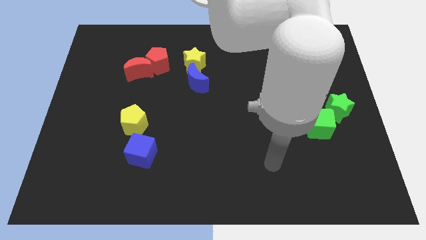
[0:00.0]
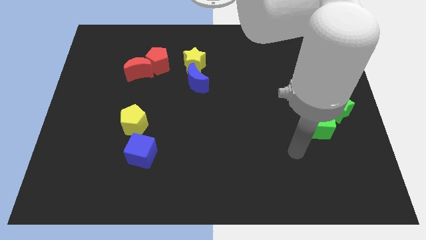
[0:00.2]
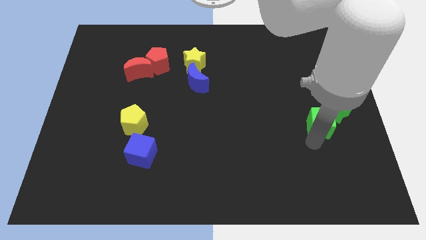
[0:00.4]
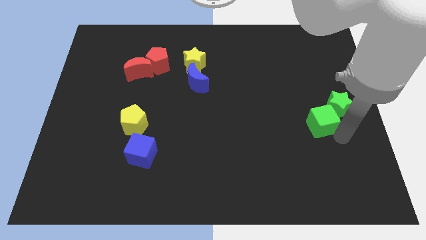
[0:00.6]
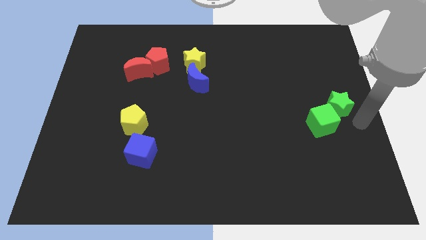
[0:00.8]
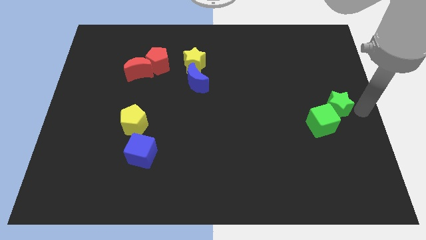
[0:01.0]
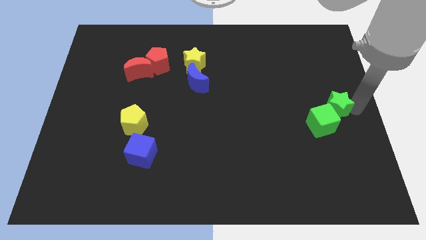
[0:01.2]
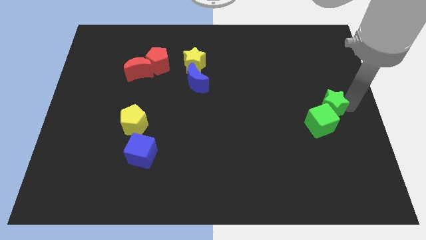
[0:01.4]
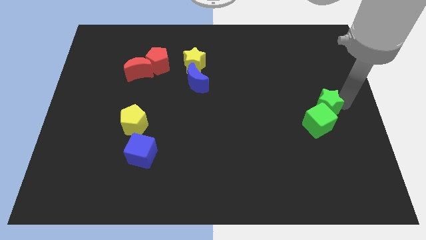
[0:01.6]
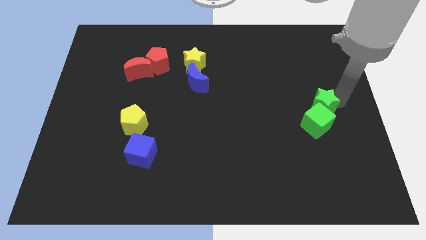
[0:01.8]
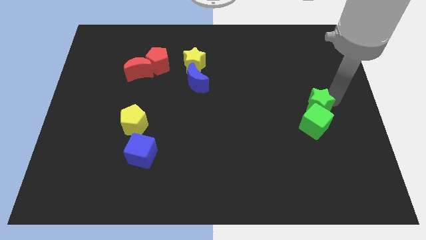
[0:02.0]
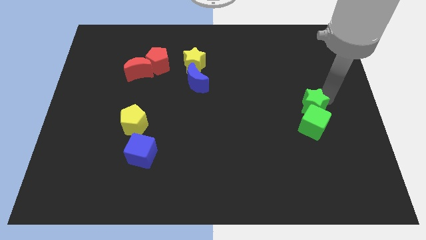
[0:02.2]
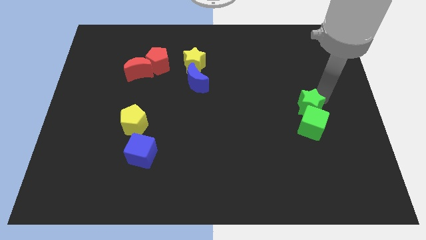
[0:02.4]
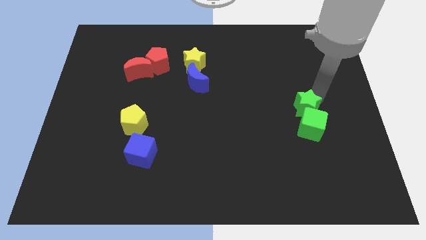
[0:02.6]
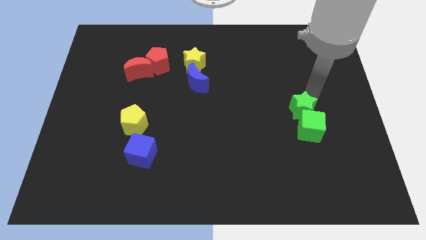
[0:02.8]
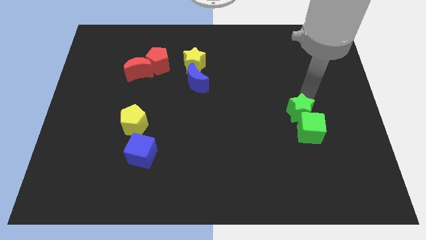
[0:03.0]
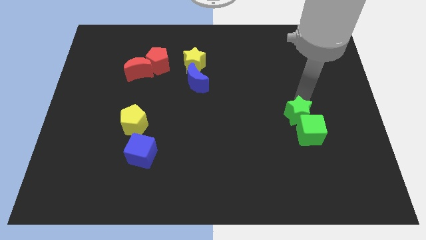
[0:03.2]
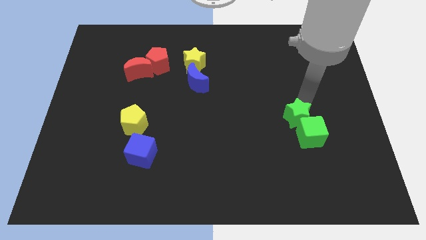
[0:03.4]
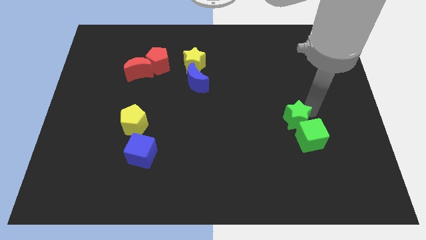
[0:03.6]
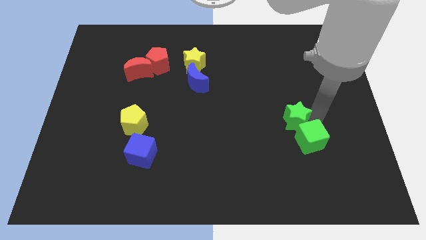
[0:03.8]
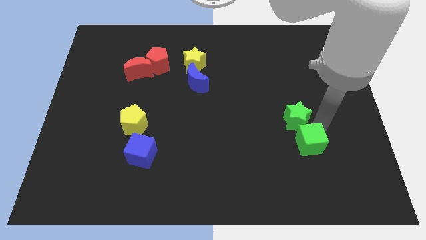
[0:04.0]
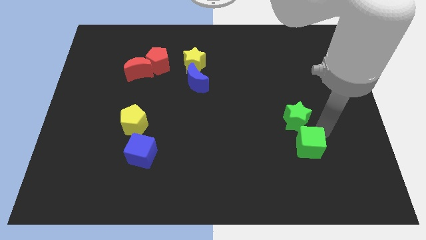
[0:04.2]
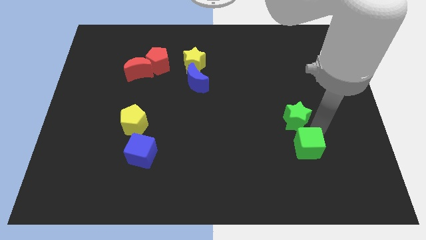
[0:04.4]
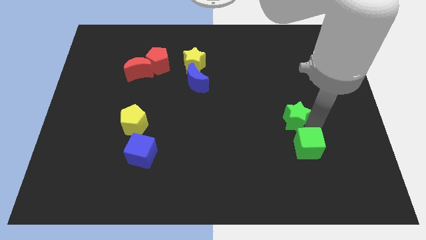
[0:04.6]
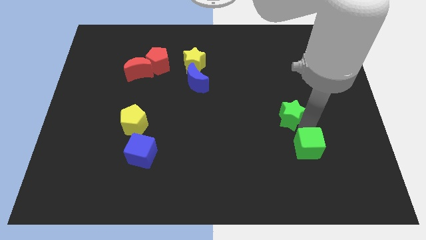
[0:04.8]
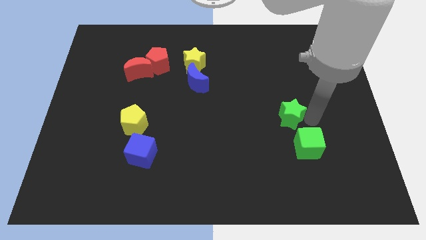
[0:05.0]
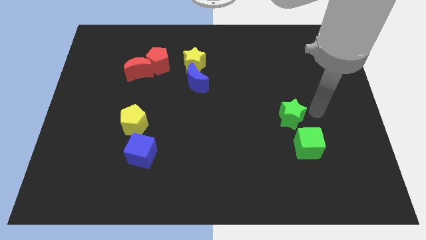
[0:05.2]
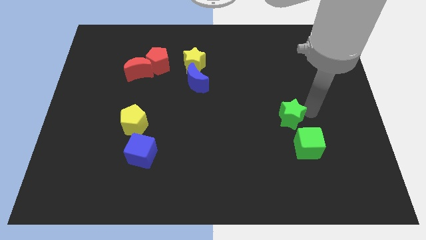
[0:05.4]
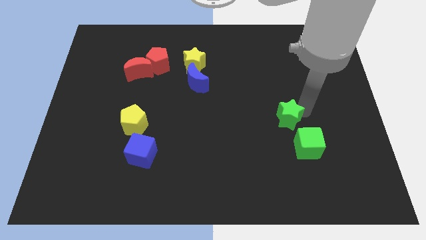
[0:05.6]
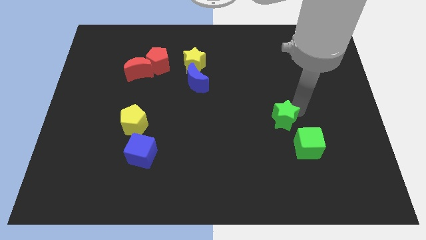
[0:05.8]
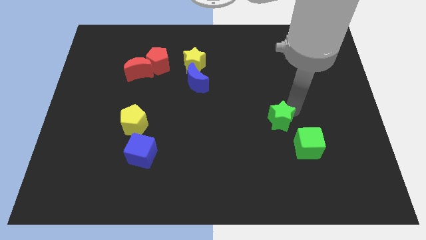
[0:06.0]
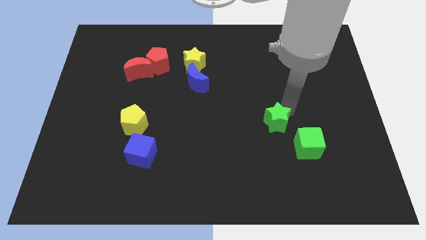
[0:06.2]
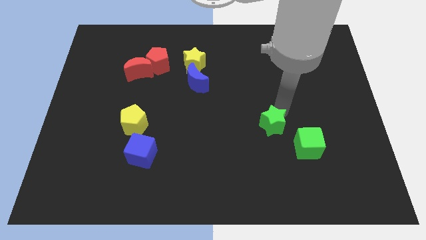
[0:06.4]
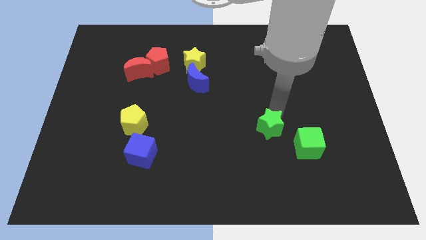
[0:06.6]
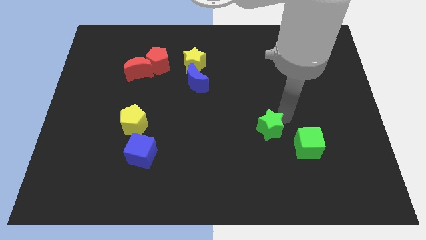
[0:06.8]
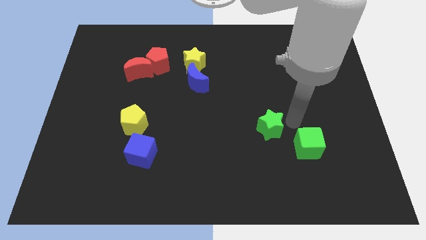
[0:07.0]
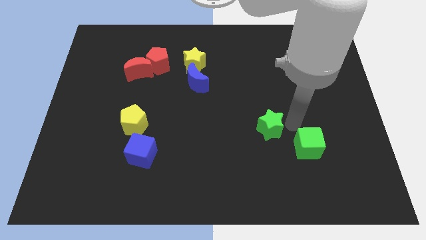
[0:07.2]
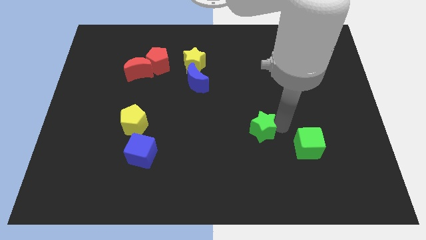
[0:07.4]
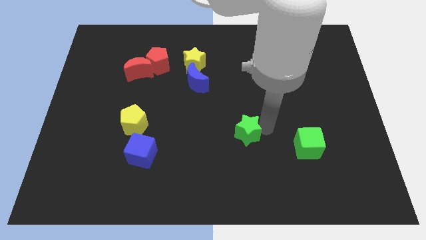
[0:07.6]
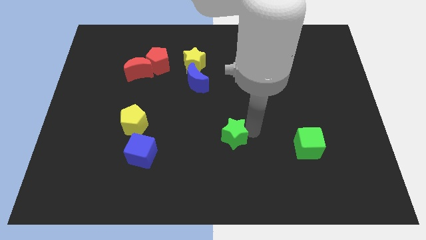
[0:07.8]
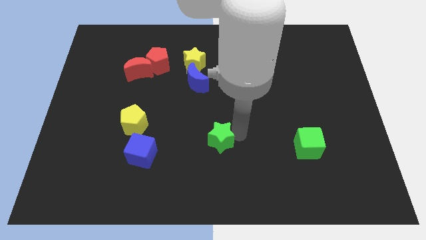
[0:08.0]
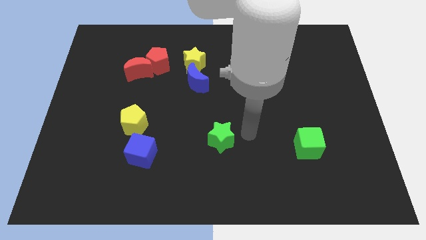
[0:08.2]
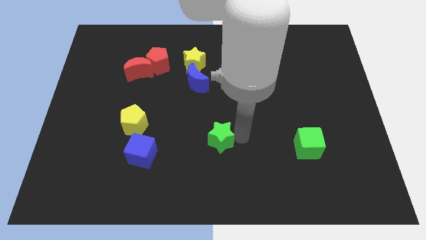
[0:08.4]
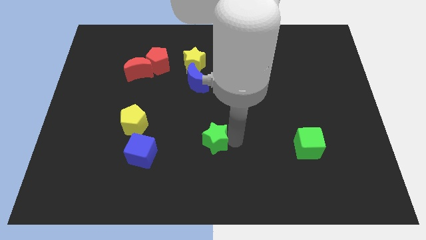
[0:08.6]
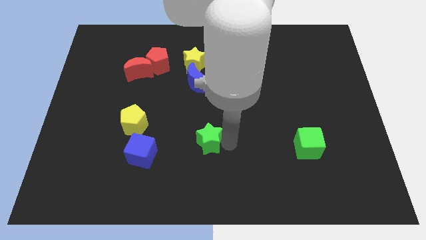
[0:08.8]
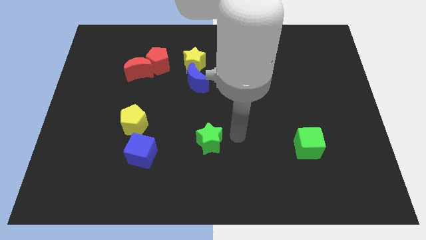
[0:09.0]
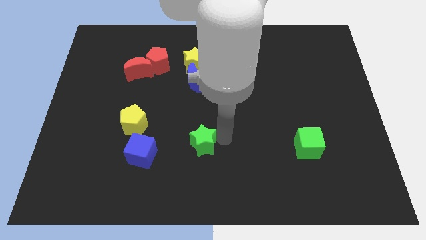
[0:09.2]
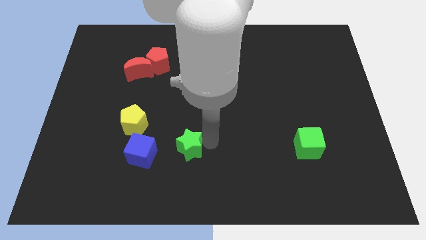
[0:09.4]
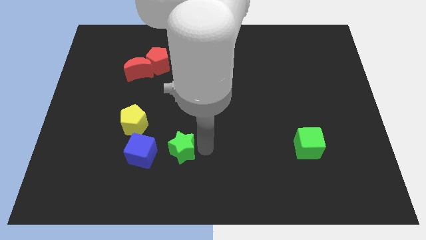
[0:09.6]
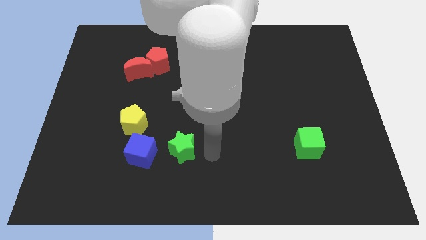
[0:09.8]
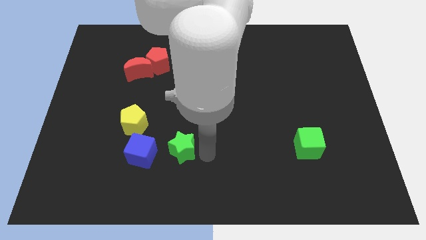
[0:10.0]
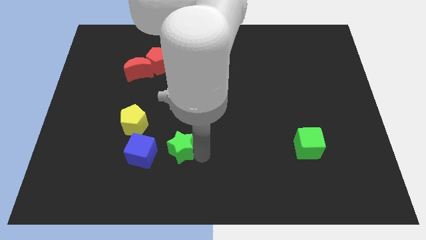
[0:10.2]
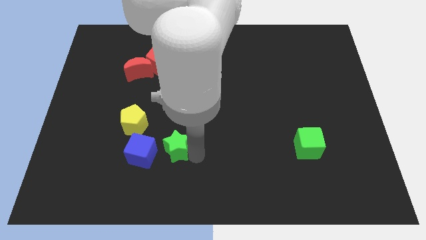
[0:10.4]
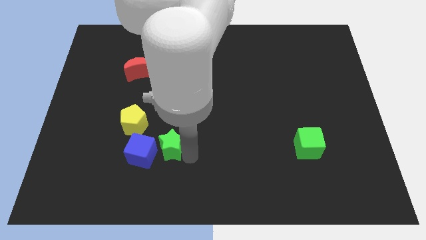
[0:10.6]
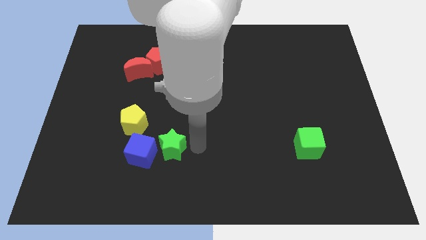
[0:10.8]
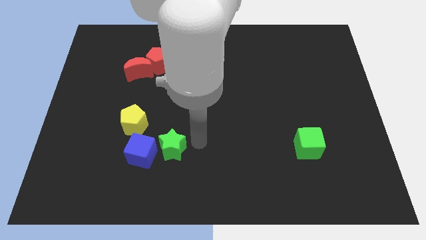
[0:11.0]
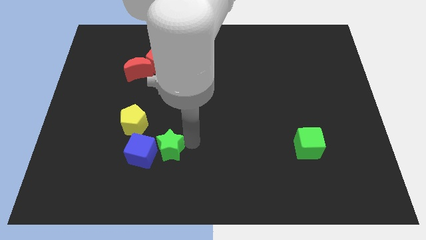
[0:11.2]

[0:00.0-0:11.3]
move the green star next to the blue cube

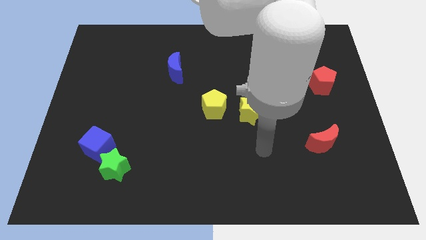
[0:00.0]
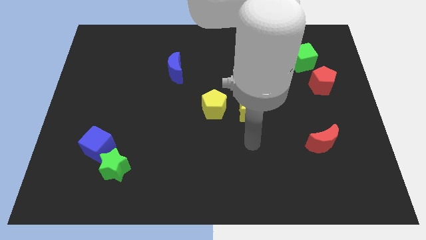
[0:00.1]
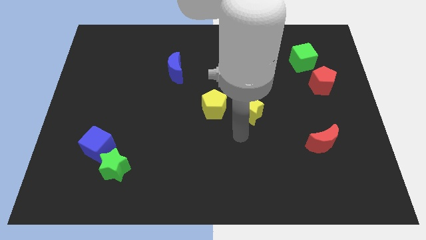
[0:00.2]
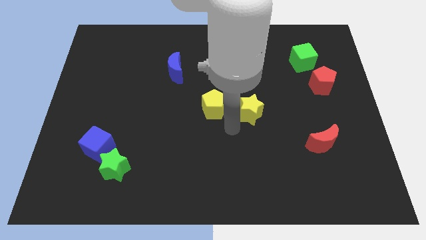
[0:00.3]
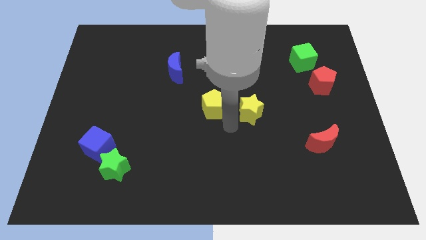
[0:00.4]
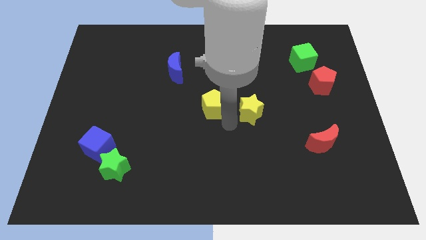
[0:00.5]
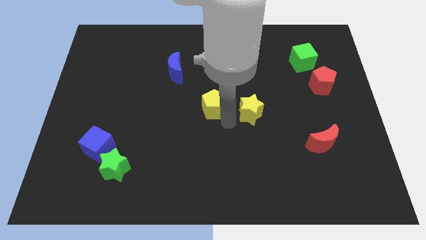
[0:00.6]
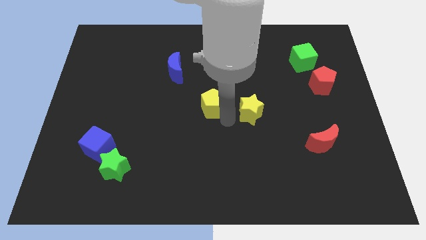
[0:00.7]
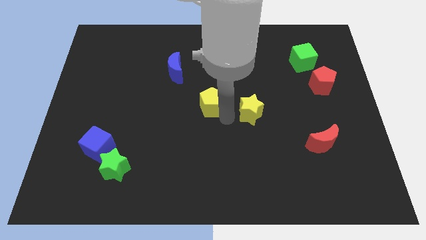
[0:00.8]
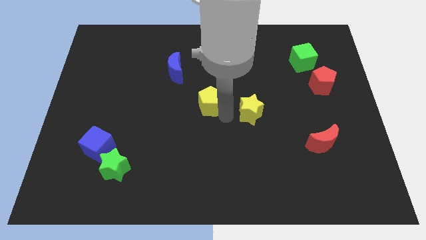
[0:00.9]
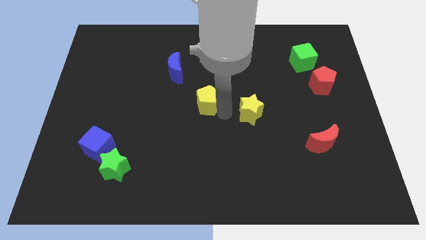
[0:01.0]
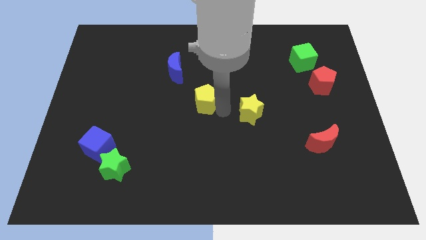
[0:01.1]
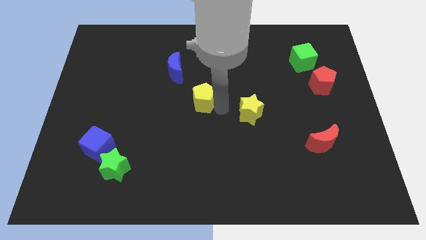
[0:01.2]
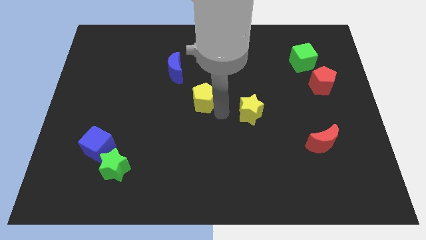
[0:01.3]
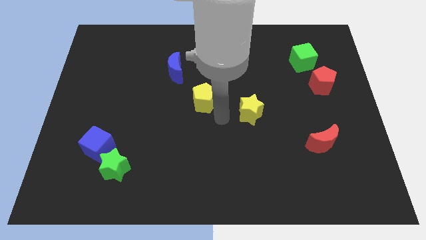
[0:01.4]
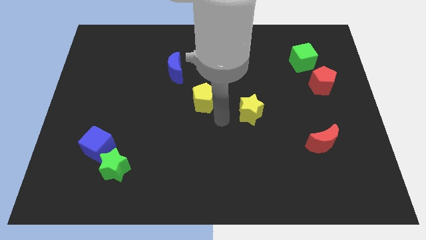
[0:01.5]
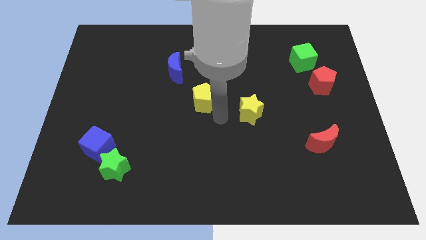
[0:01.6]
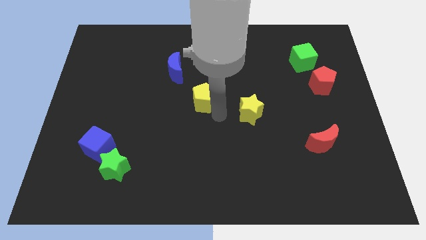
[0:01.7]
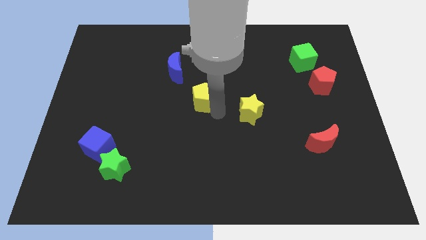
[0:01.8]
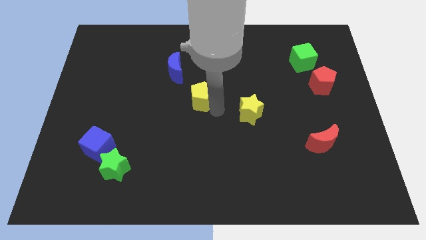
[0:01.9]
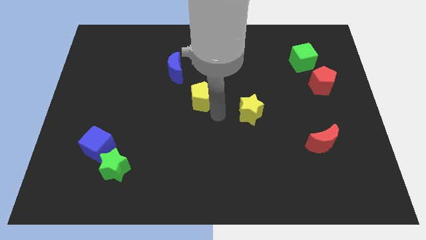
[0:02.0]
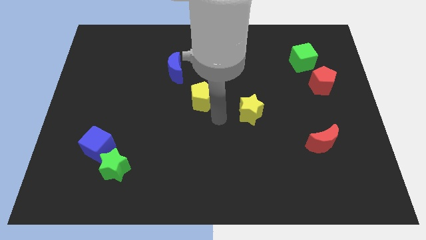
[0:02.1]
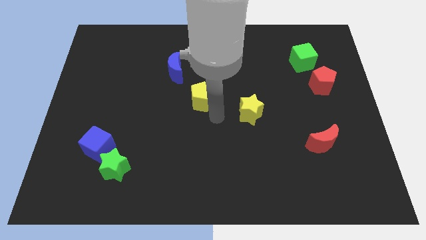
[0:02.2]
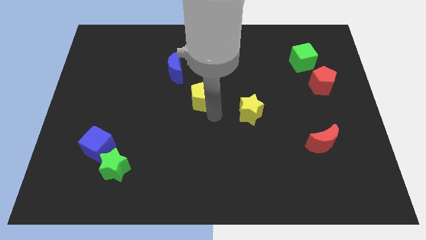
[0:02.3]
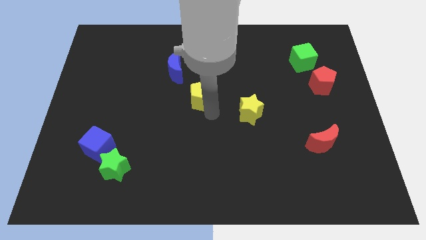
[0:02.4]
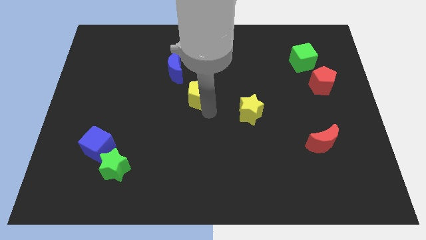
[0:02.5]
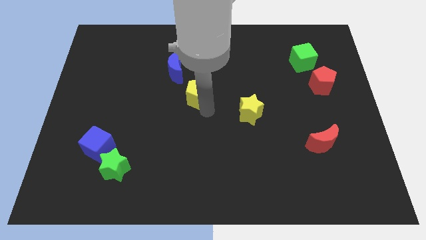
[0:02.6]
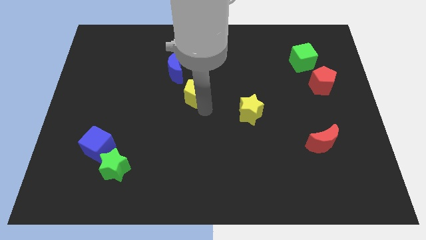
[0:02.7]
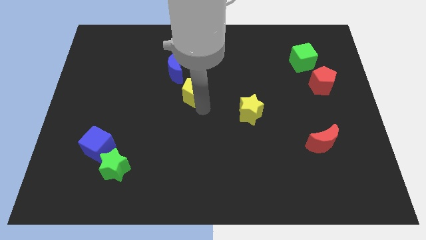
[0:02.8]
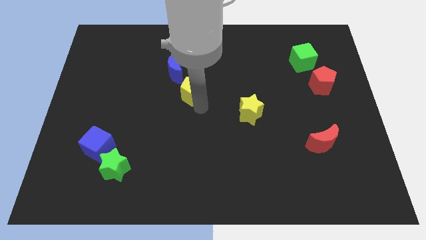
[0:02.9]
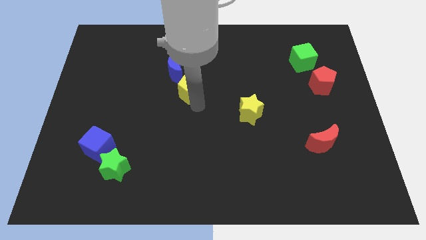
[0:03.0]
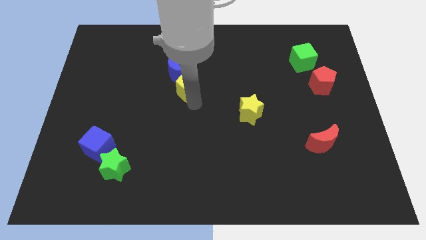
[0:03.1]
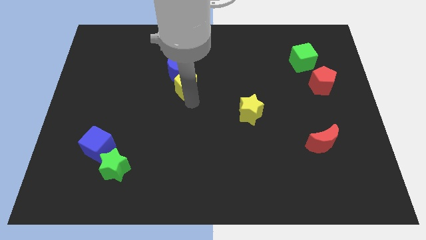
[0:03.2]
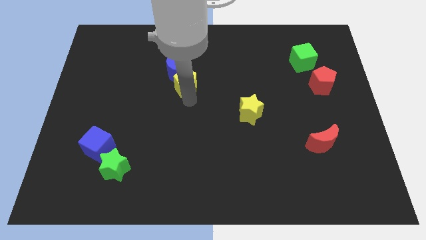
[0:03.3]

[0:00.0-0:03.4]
push the yellow pentagon to the blue moon
